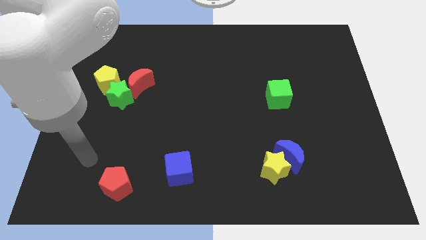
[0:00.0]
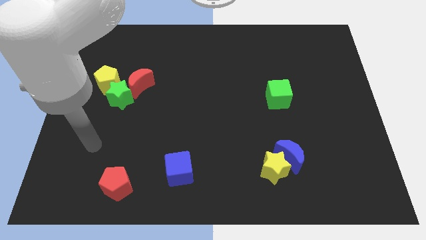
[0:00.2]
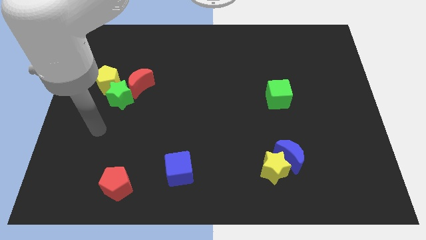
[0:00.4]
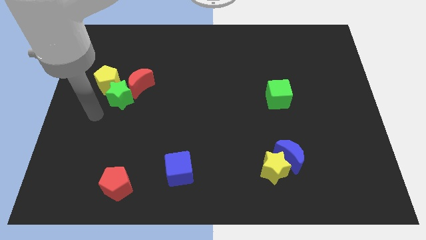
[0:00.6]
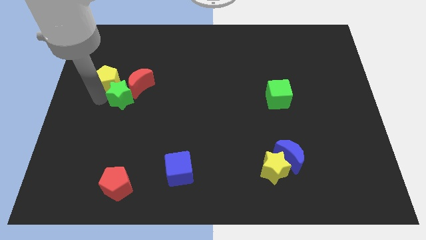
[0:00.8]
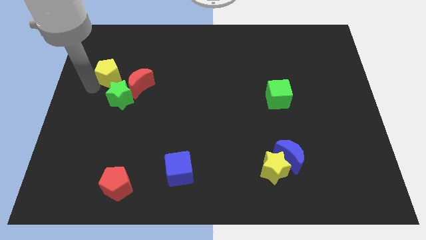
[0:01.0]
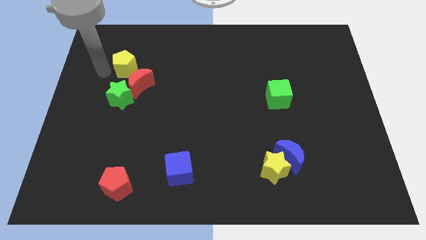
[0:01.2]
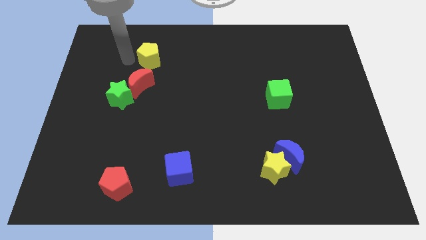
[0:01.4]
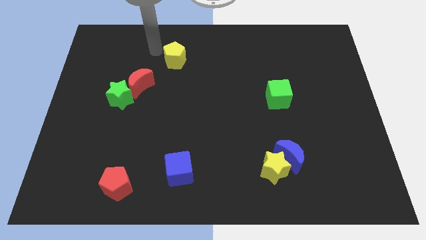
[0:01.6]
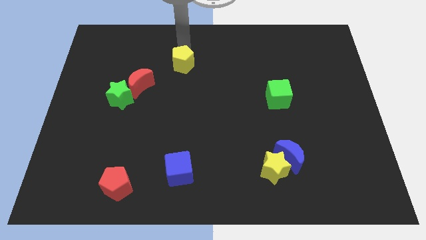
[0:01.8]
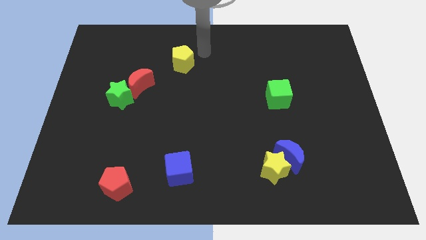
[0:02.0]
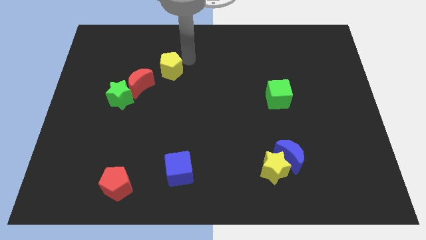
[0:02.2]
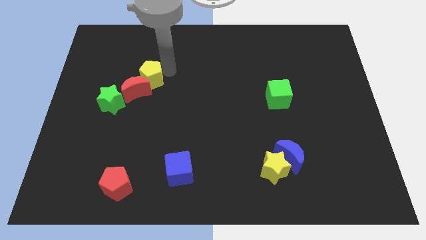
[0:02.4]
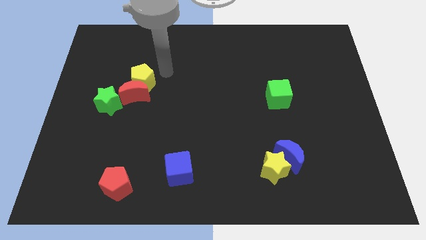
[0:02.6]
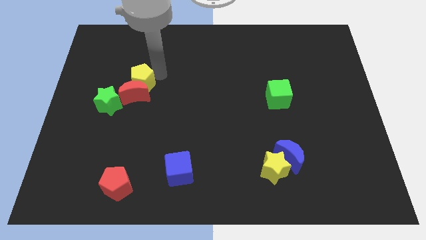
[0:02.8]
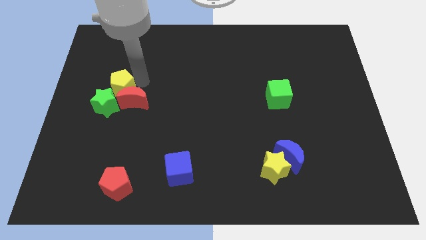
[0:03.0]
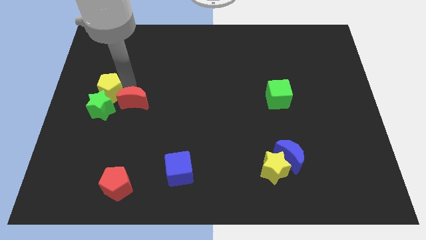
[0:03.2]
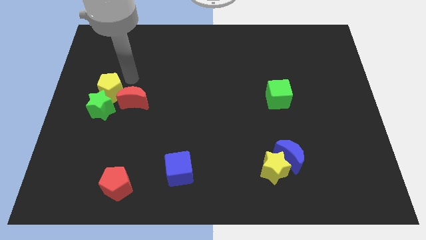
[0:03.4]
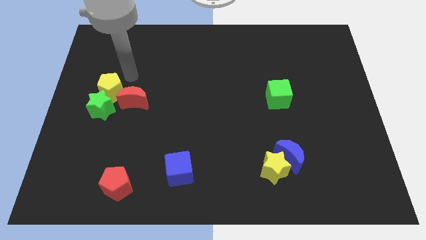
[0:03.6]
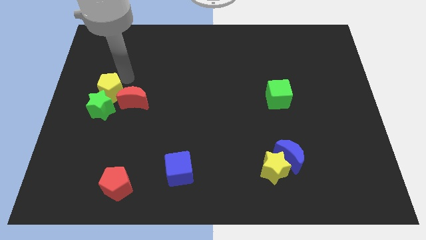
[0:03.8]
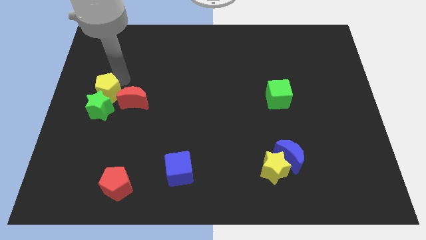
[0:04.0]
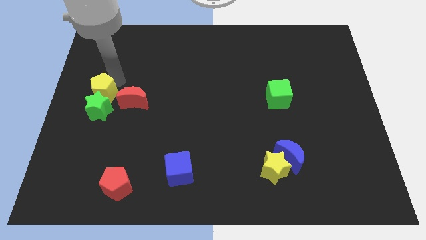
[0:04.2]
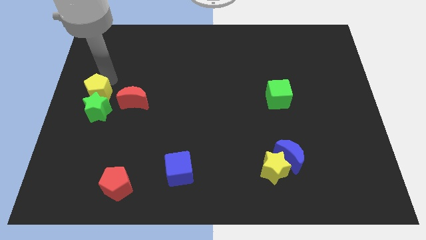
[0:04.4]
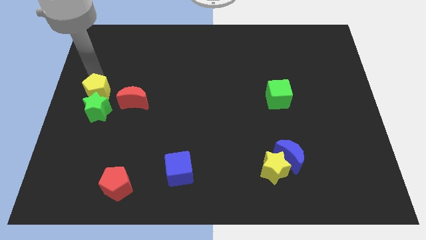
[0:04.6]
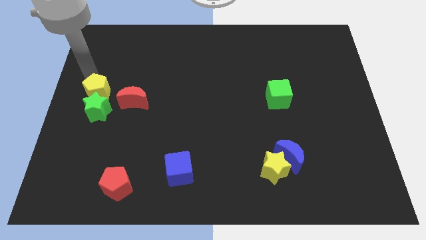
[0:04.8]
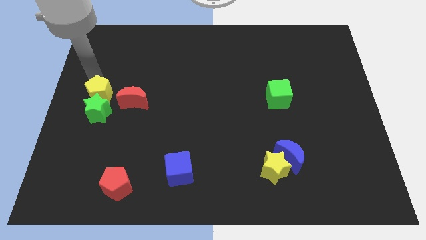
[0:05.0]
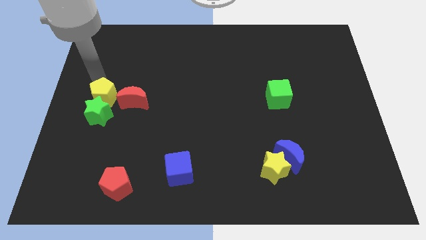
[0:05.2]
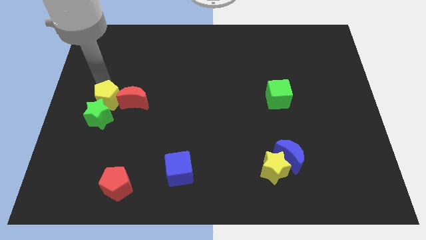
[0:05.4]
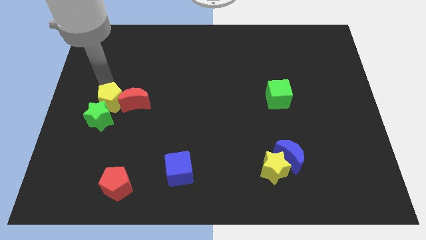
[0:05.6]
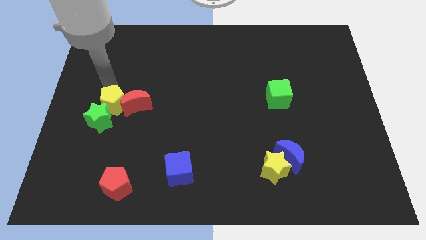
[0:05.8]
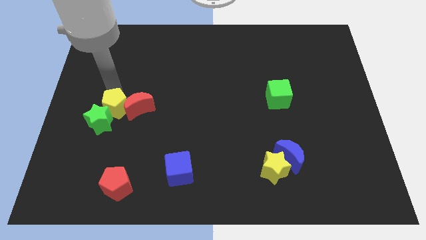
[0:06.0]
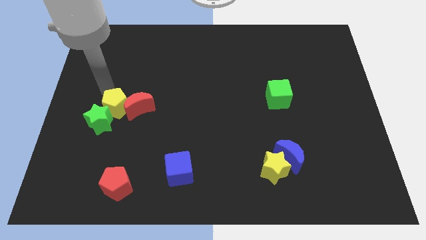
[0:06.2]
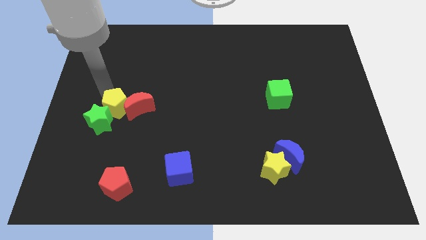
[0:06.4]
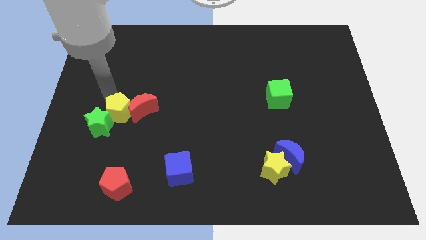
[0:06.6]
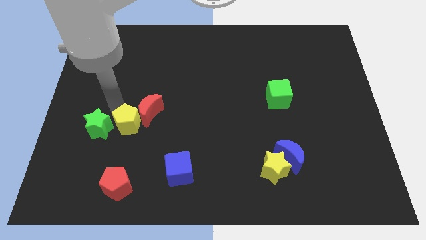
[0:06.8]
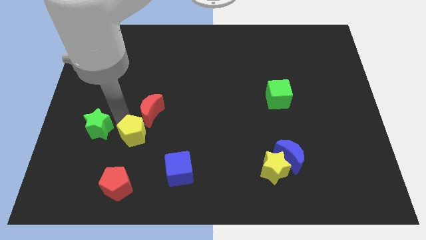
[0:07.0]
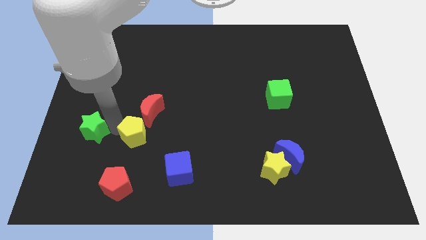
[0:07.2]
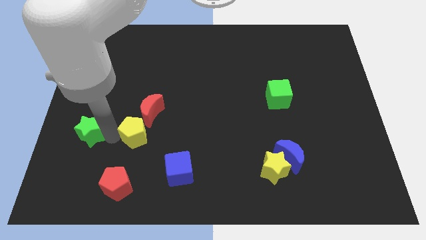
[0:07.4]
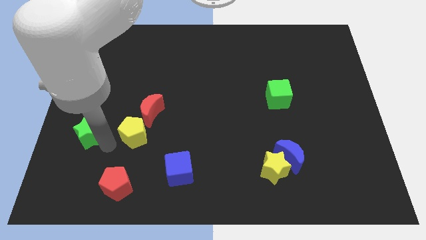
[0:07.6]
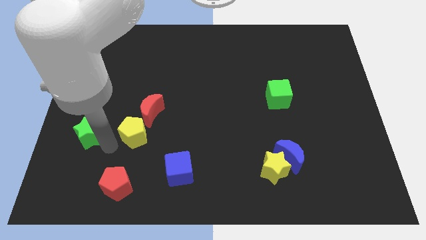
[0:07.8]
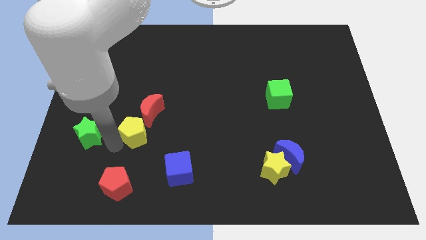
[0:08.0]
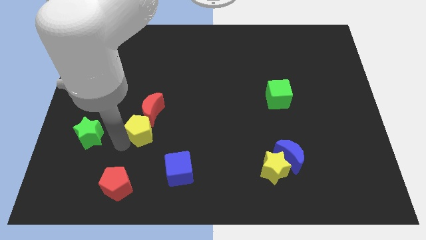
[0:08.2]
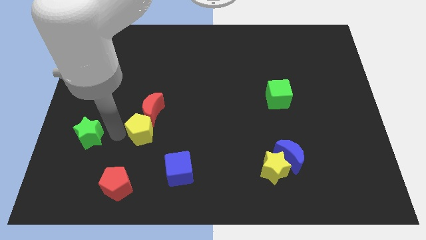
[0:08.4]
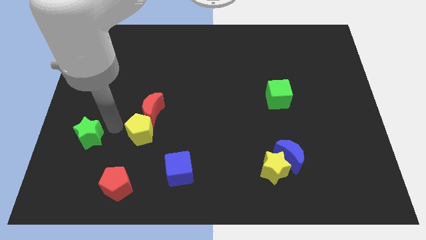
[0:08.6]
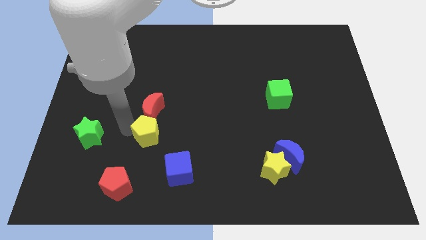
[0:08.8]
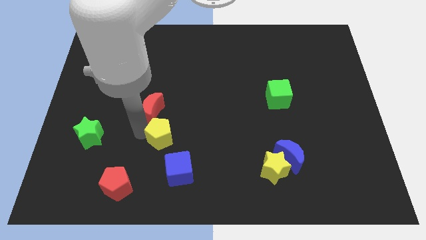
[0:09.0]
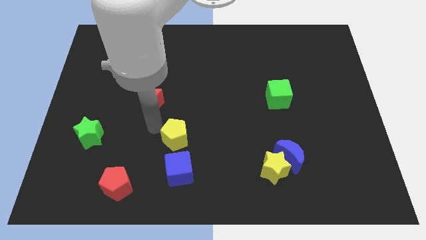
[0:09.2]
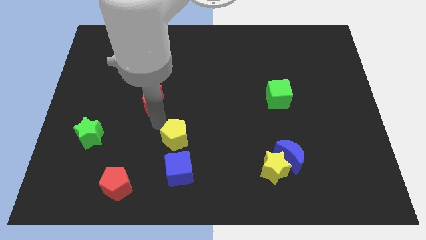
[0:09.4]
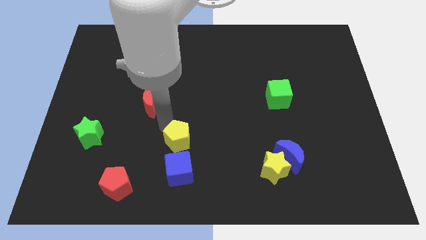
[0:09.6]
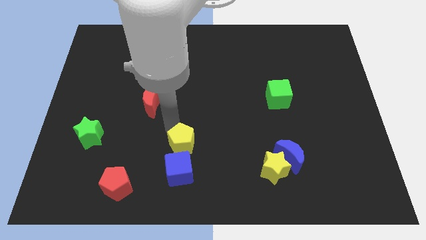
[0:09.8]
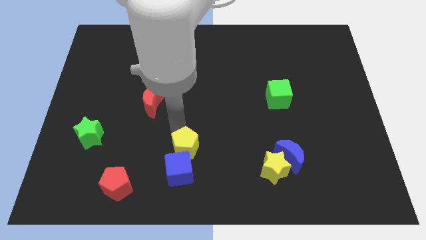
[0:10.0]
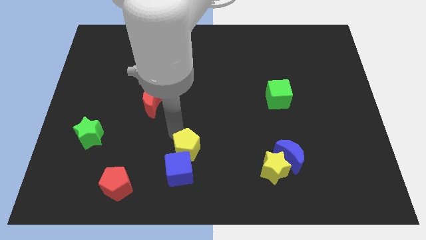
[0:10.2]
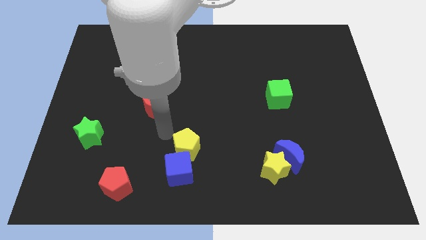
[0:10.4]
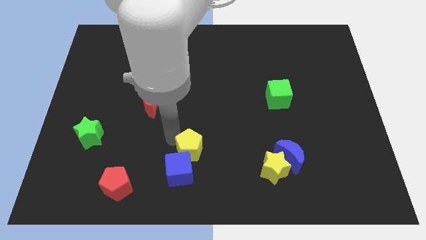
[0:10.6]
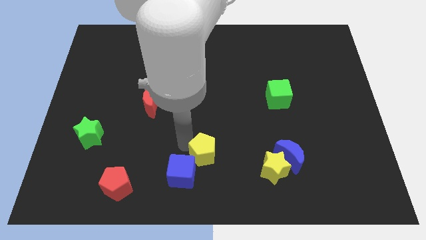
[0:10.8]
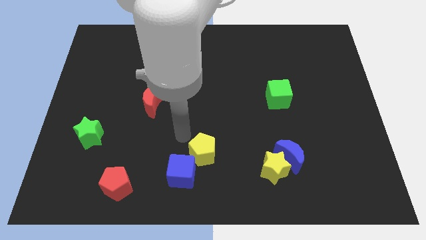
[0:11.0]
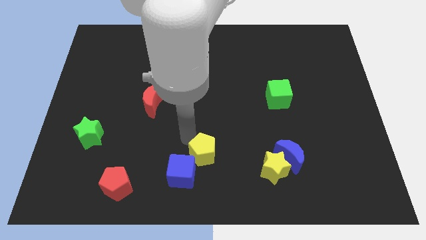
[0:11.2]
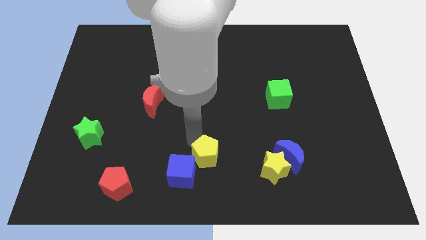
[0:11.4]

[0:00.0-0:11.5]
push the yellow pentagon left of the yellow star

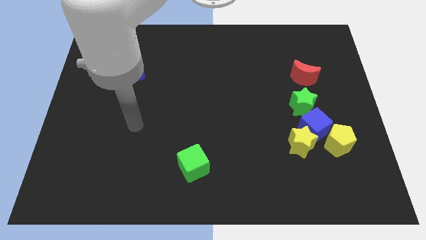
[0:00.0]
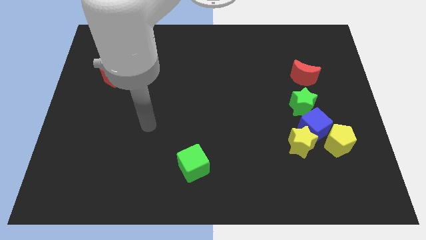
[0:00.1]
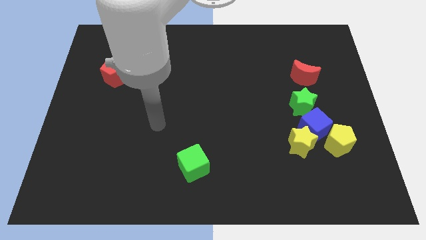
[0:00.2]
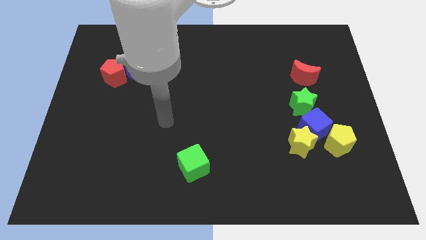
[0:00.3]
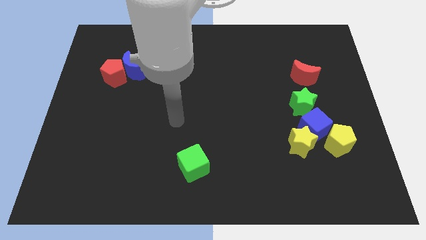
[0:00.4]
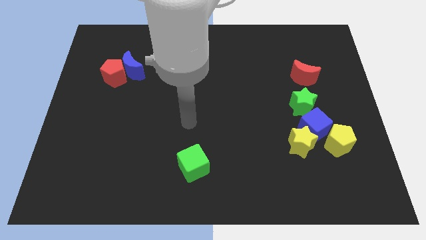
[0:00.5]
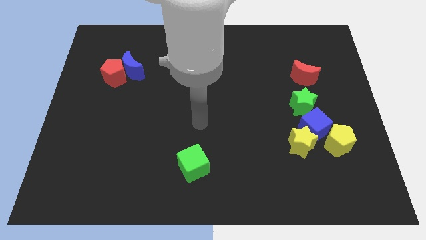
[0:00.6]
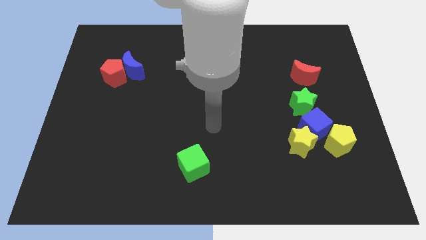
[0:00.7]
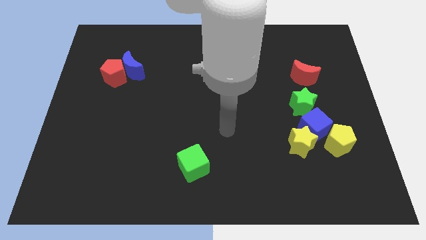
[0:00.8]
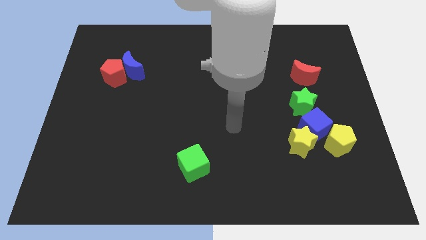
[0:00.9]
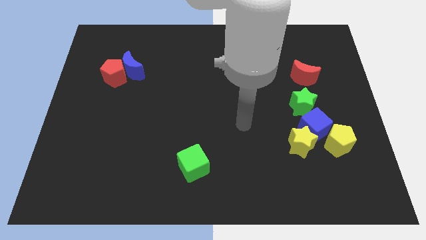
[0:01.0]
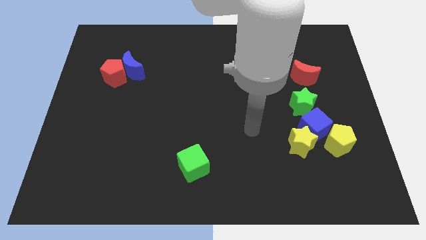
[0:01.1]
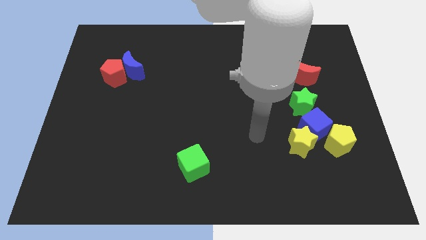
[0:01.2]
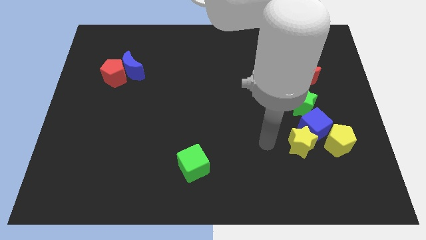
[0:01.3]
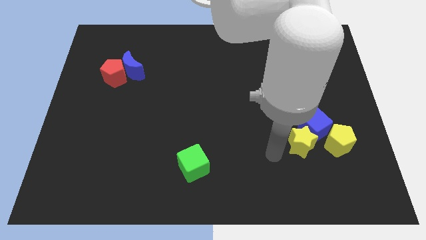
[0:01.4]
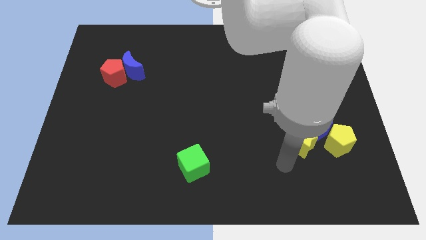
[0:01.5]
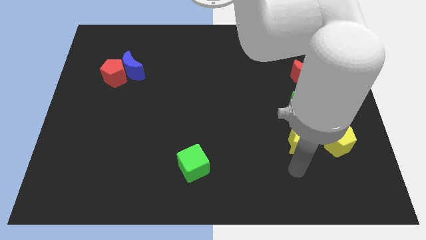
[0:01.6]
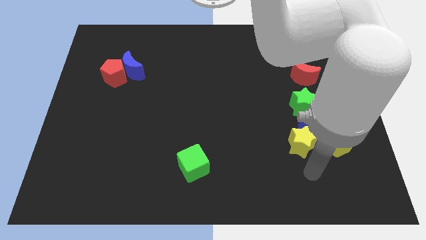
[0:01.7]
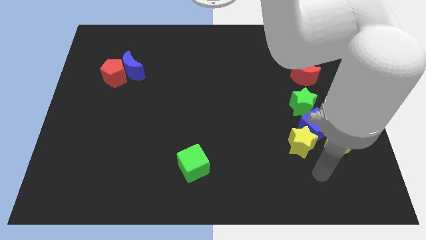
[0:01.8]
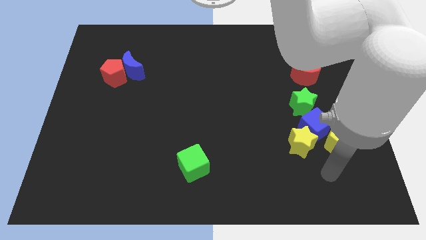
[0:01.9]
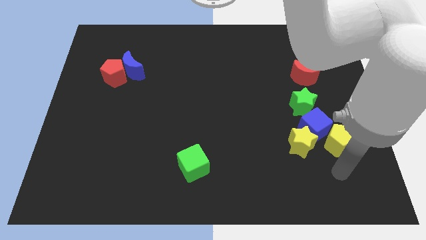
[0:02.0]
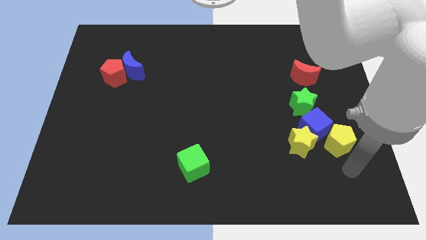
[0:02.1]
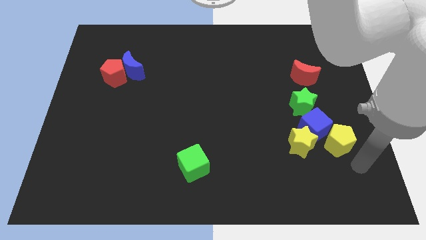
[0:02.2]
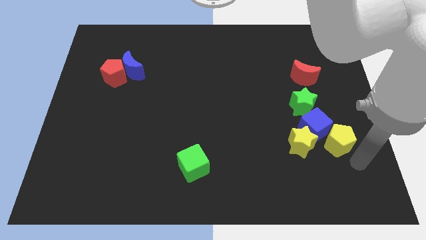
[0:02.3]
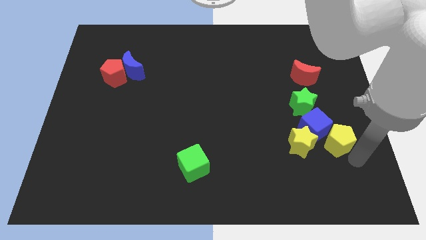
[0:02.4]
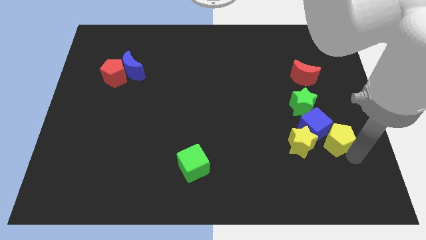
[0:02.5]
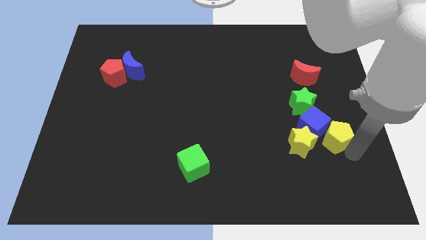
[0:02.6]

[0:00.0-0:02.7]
push the yellow pentagon to the top right of the yellow star

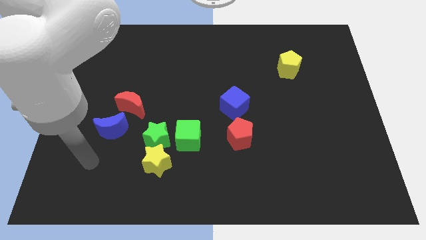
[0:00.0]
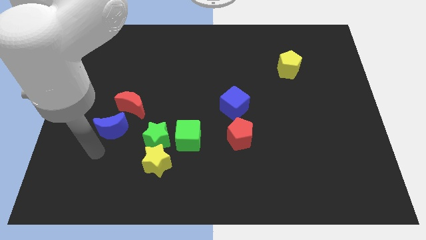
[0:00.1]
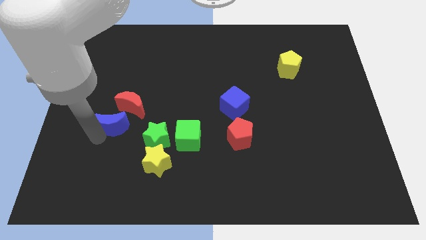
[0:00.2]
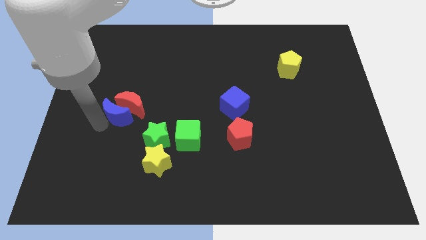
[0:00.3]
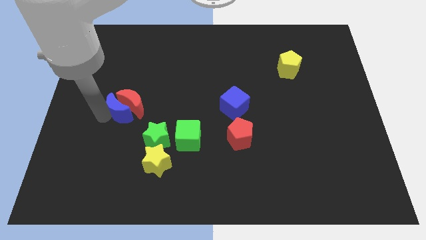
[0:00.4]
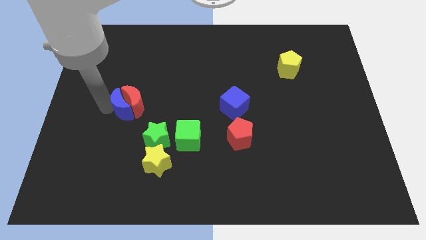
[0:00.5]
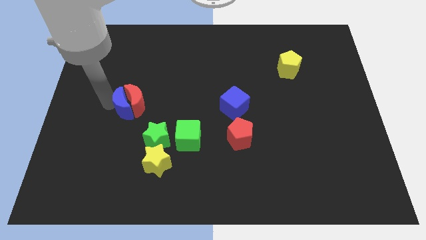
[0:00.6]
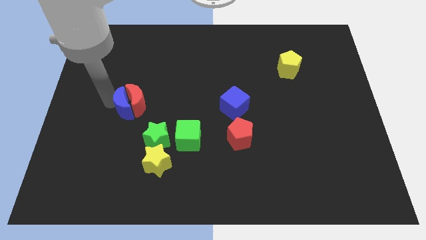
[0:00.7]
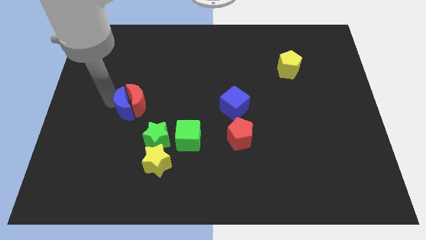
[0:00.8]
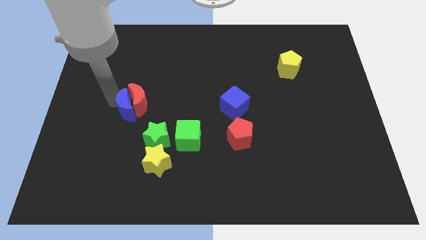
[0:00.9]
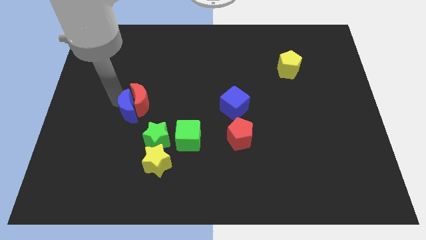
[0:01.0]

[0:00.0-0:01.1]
slide the red moon to the top side of the green star
